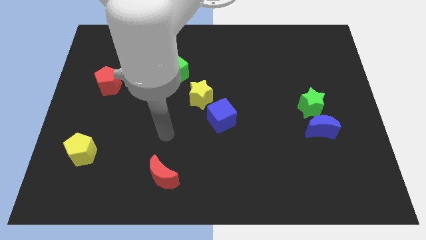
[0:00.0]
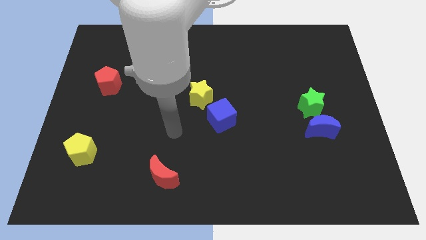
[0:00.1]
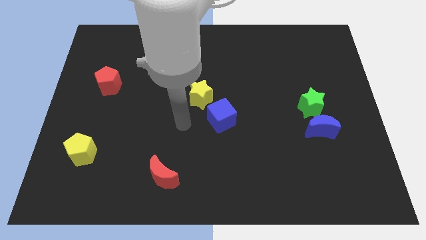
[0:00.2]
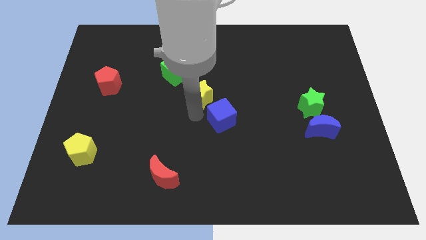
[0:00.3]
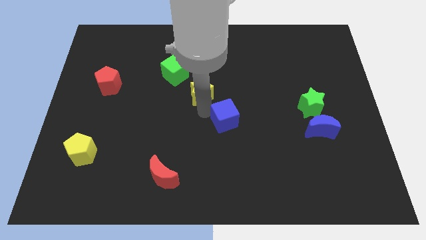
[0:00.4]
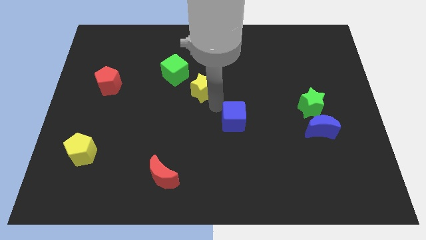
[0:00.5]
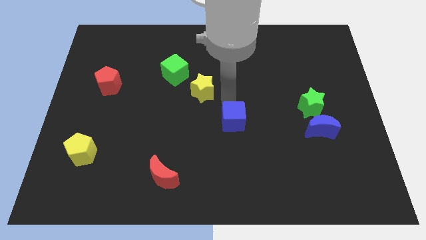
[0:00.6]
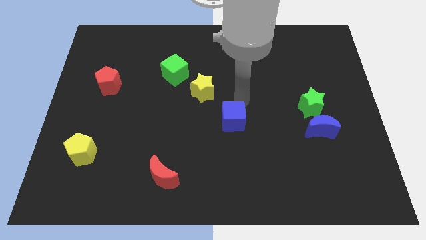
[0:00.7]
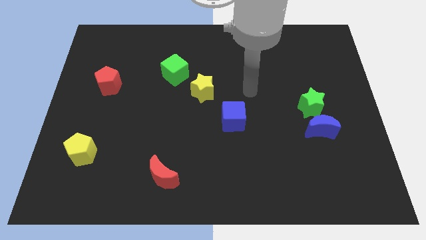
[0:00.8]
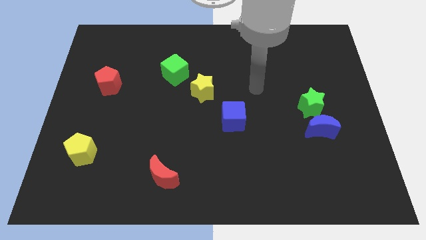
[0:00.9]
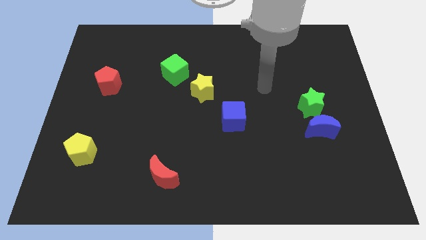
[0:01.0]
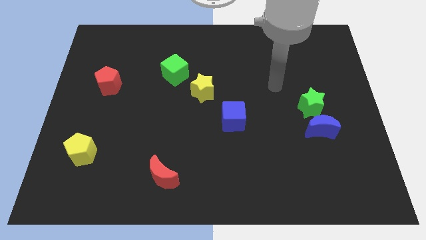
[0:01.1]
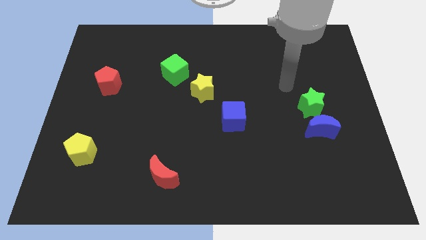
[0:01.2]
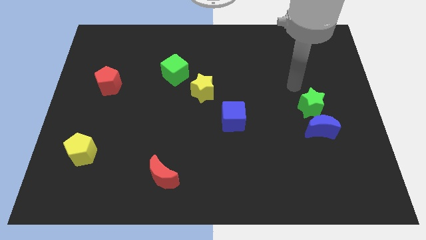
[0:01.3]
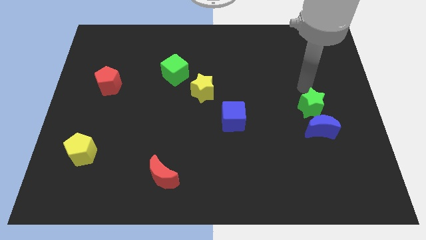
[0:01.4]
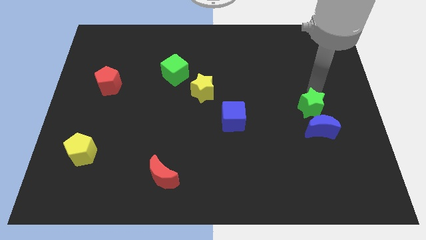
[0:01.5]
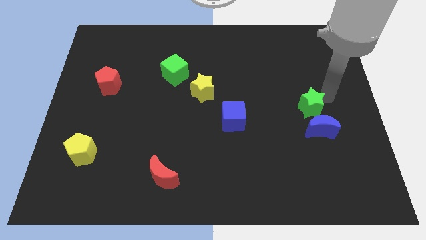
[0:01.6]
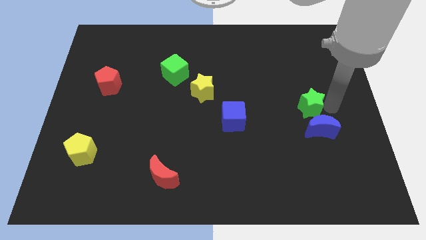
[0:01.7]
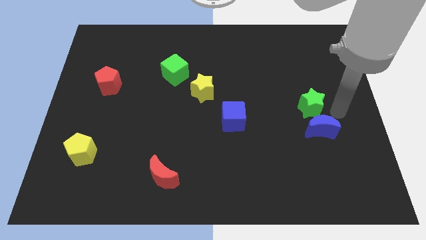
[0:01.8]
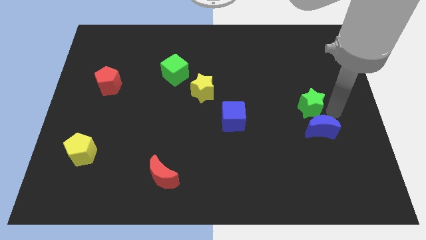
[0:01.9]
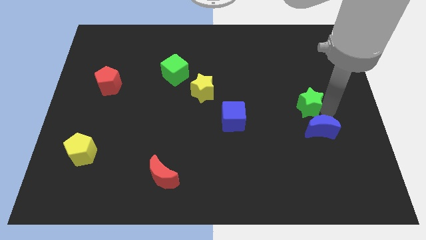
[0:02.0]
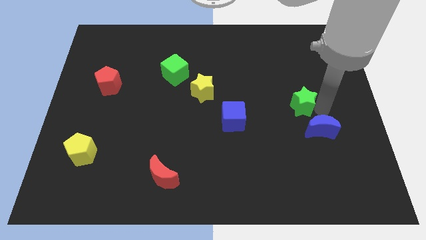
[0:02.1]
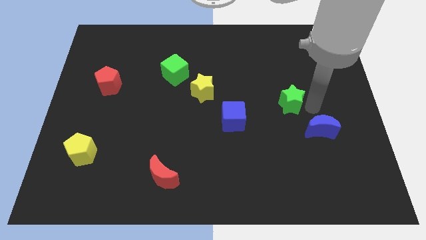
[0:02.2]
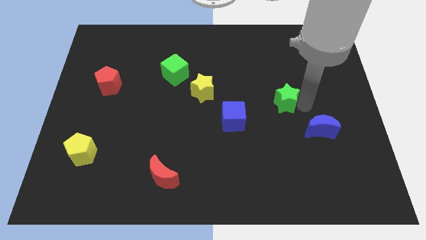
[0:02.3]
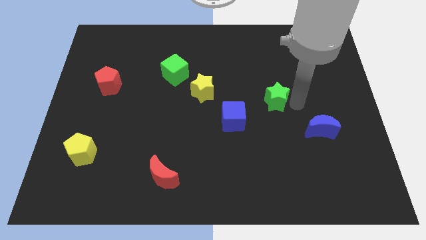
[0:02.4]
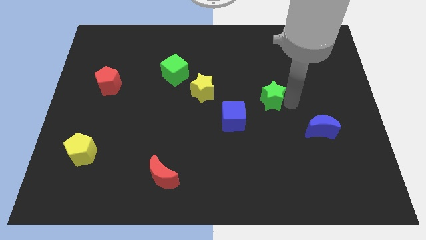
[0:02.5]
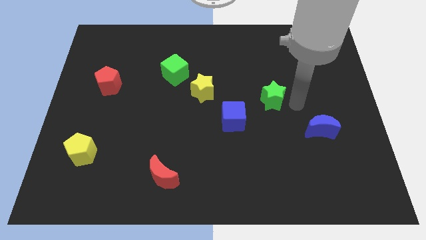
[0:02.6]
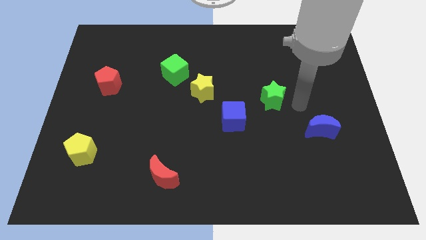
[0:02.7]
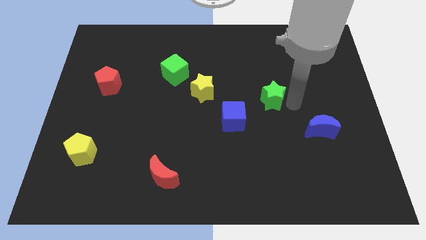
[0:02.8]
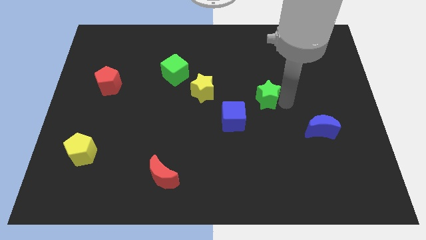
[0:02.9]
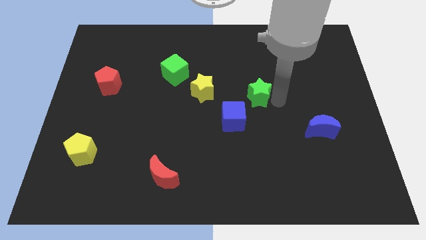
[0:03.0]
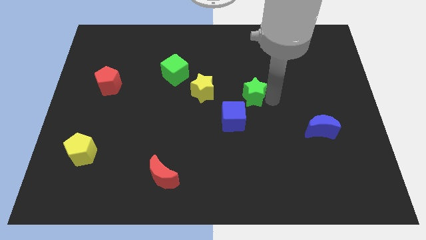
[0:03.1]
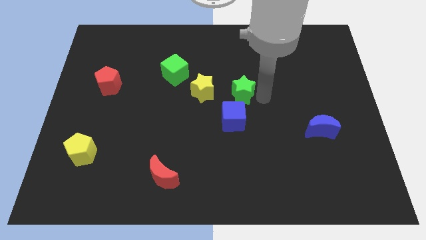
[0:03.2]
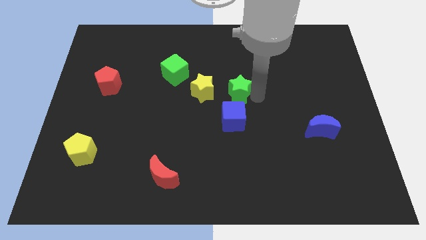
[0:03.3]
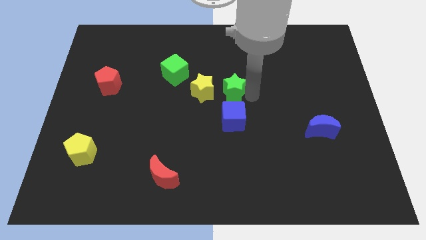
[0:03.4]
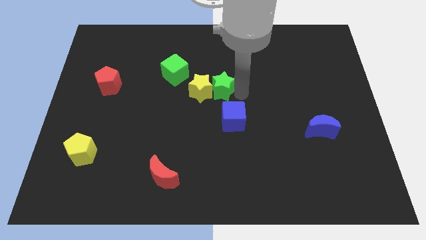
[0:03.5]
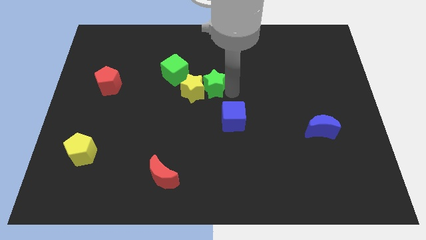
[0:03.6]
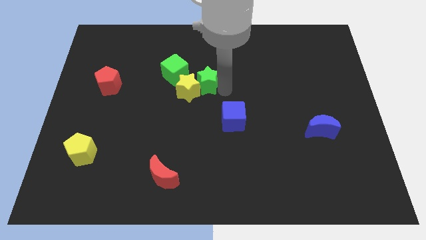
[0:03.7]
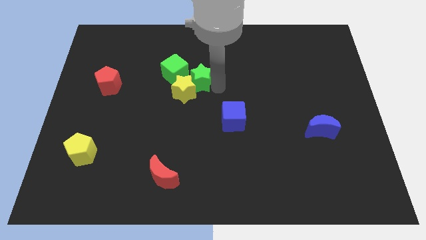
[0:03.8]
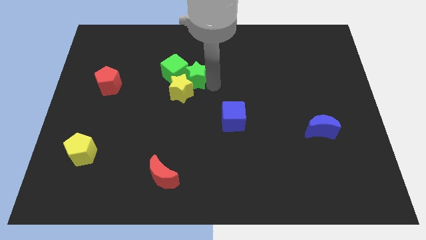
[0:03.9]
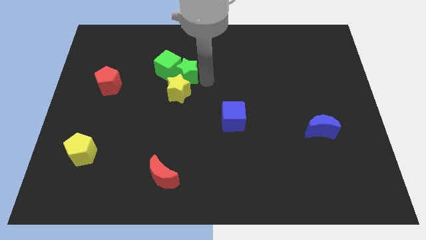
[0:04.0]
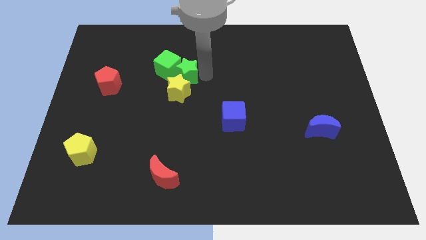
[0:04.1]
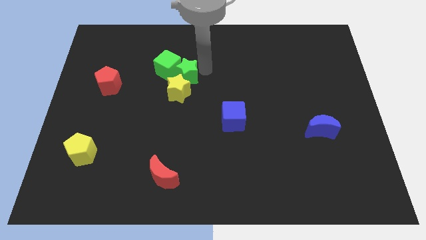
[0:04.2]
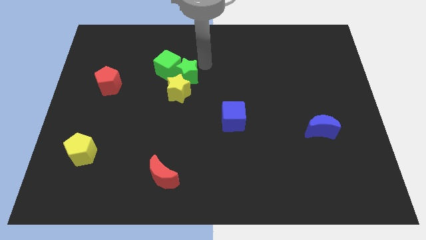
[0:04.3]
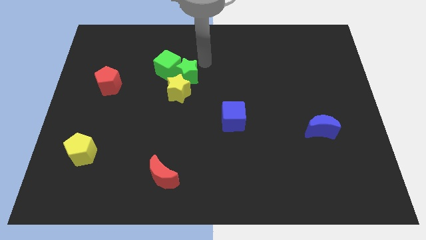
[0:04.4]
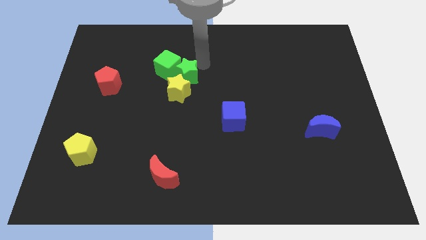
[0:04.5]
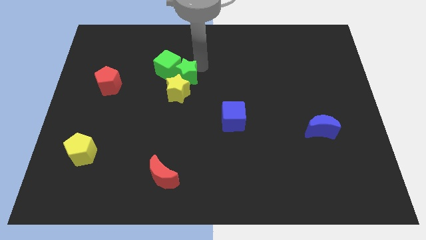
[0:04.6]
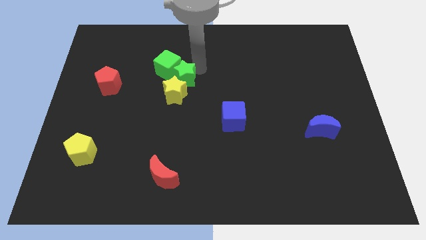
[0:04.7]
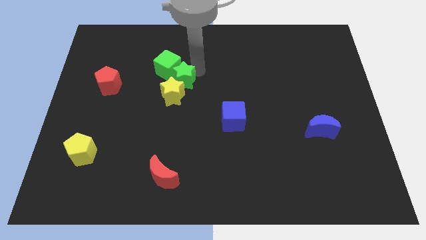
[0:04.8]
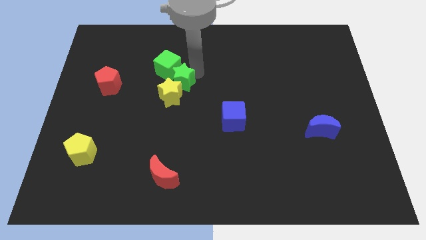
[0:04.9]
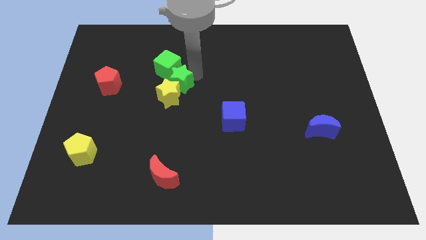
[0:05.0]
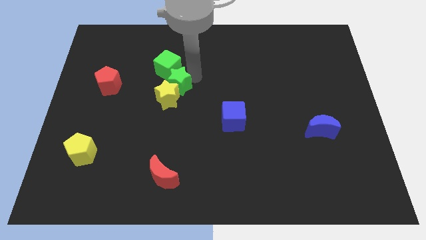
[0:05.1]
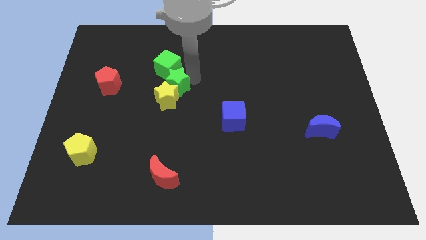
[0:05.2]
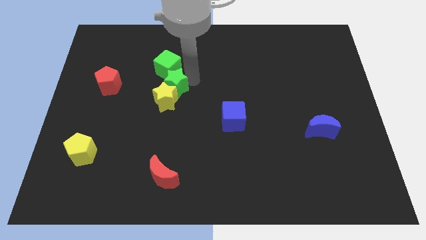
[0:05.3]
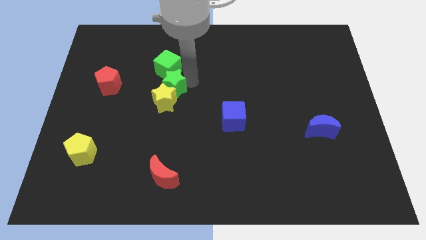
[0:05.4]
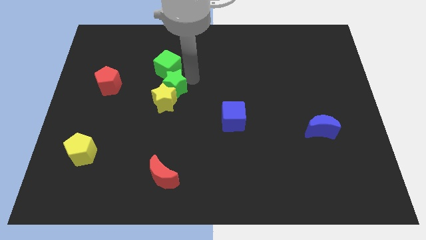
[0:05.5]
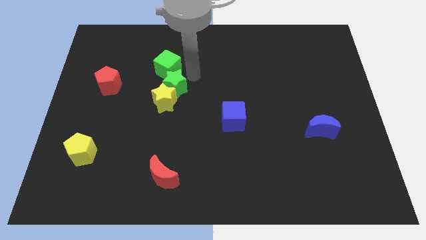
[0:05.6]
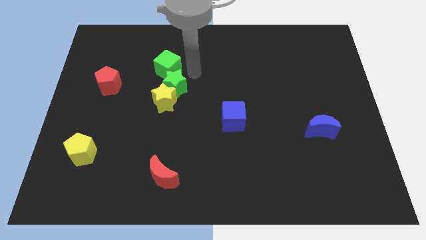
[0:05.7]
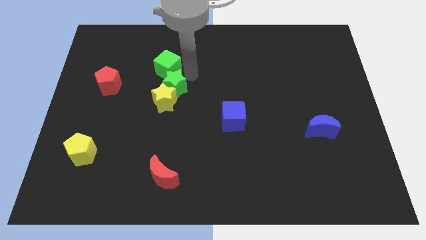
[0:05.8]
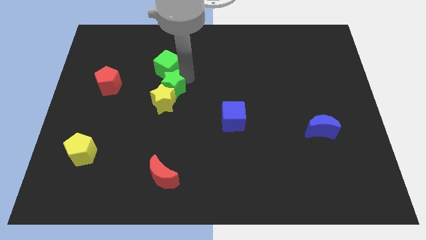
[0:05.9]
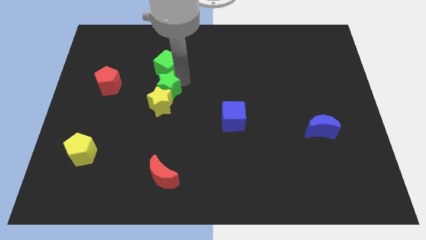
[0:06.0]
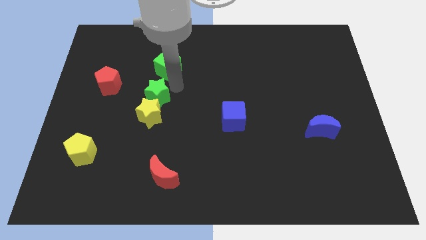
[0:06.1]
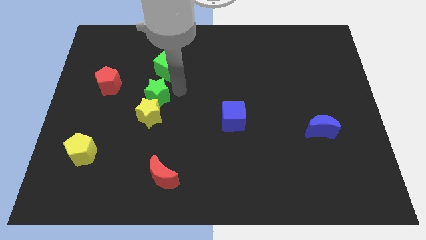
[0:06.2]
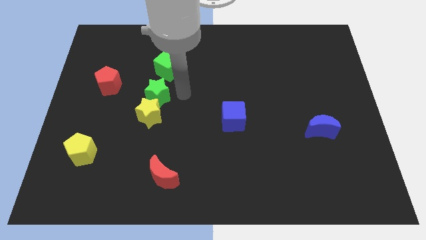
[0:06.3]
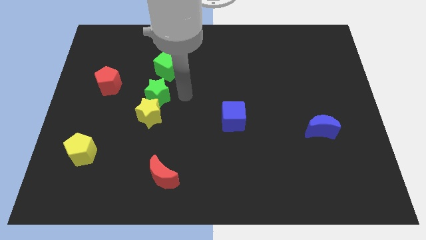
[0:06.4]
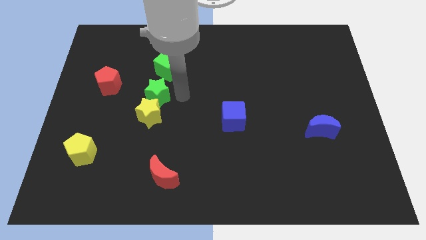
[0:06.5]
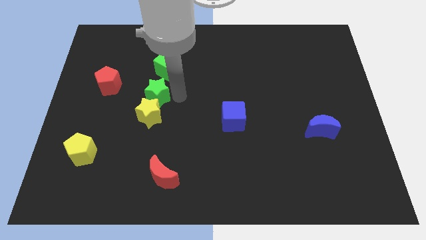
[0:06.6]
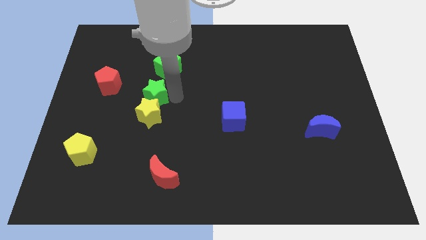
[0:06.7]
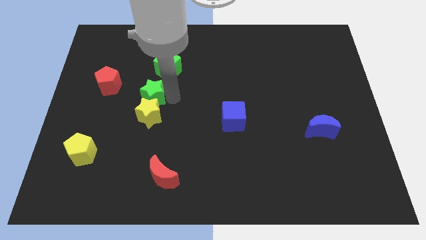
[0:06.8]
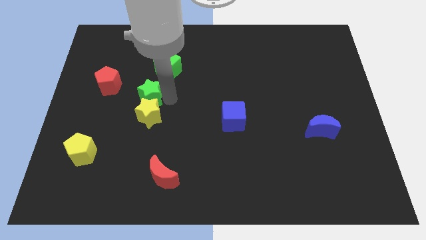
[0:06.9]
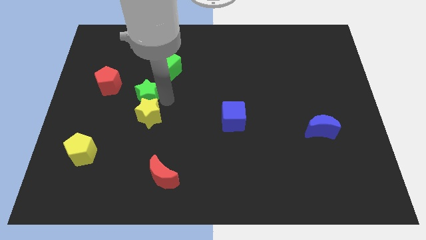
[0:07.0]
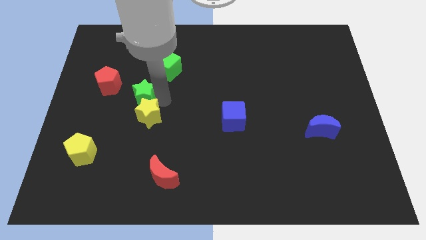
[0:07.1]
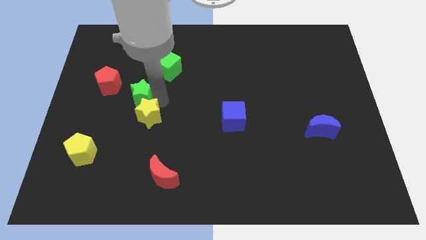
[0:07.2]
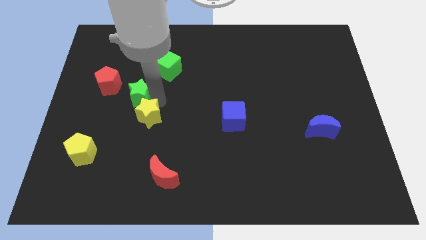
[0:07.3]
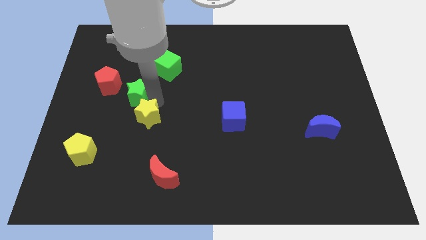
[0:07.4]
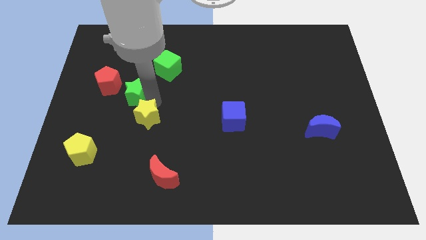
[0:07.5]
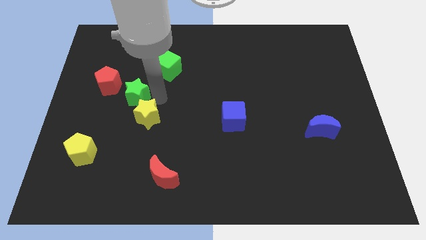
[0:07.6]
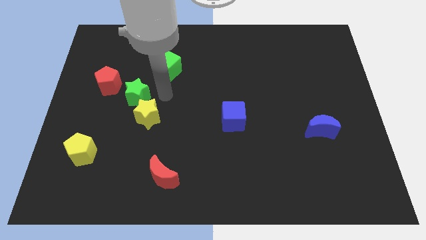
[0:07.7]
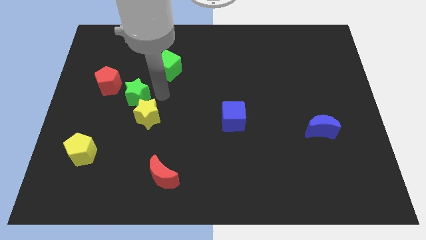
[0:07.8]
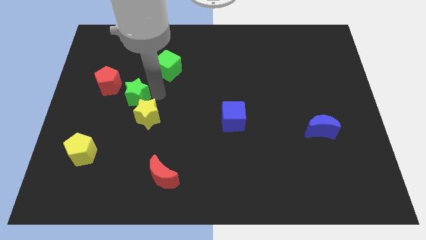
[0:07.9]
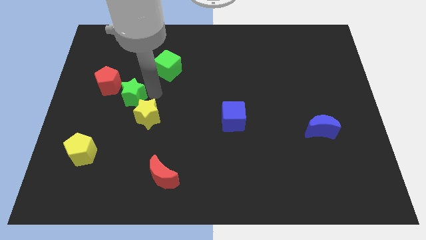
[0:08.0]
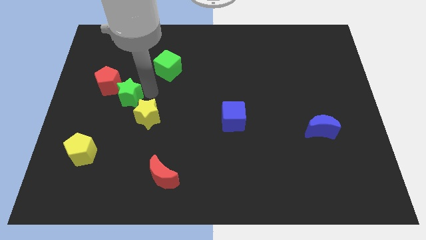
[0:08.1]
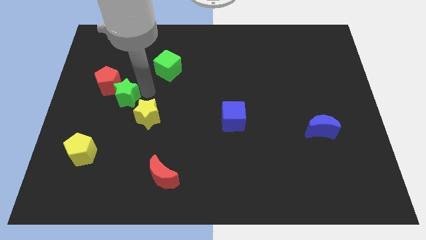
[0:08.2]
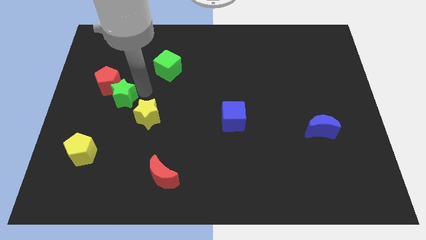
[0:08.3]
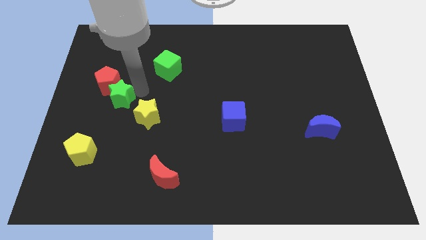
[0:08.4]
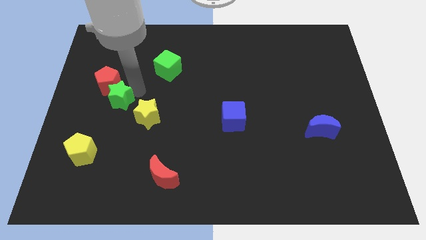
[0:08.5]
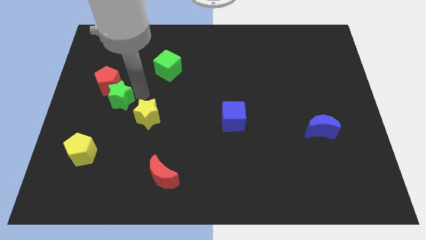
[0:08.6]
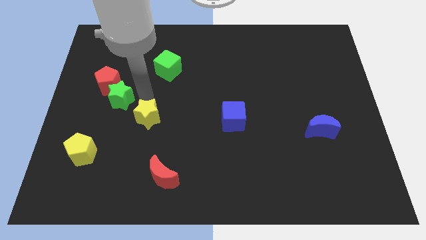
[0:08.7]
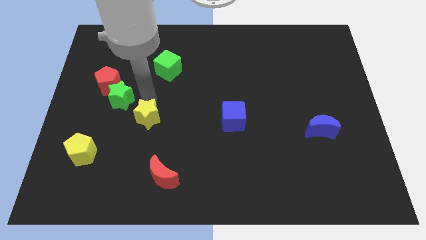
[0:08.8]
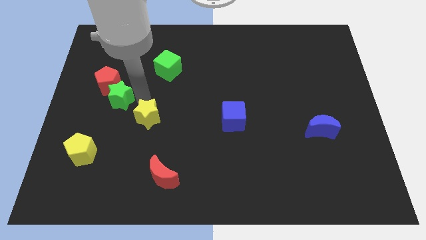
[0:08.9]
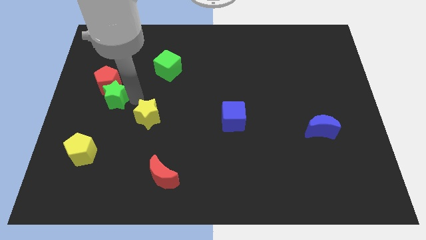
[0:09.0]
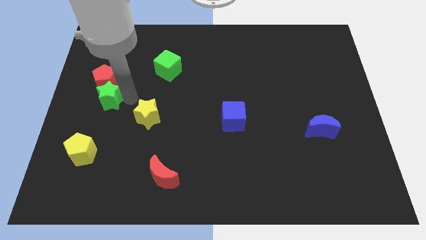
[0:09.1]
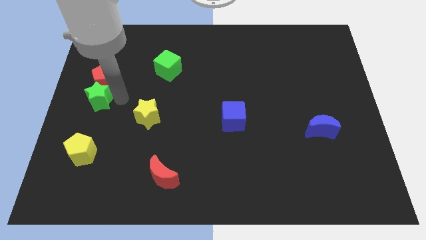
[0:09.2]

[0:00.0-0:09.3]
slide the green star to the center left
